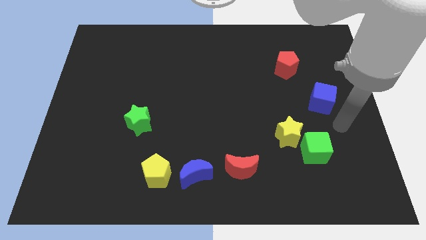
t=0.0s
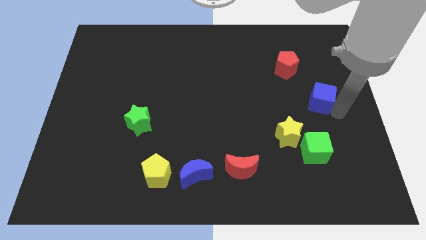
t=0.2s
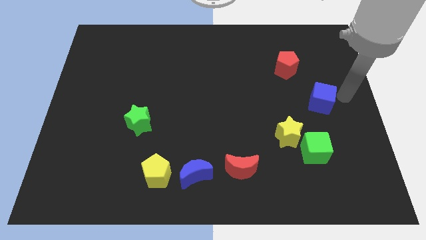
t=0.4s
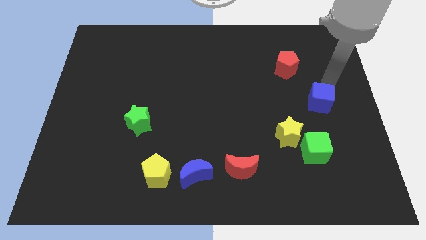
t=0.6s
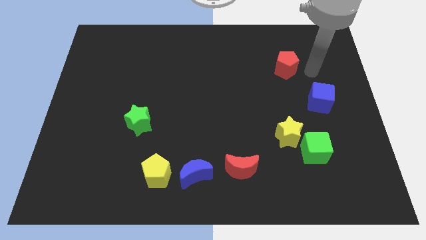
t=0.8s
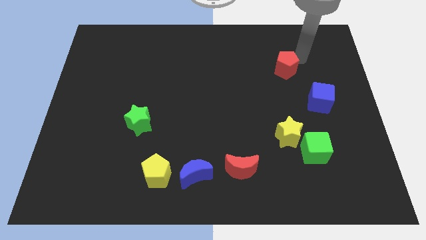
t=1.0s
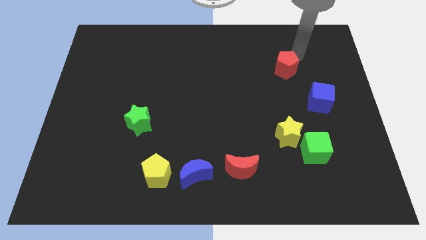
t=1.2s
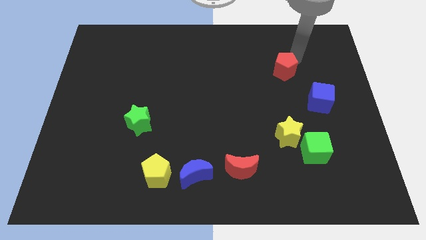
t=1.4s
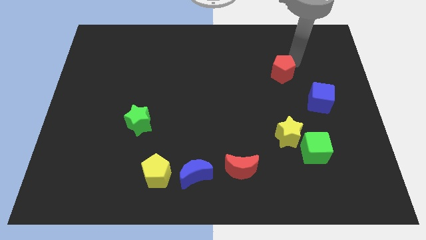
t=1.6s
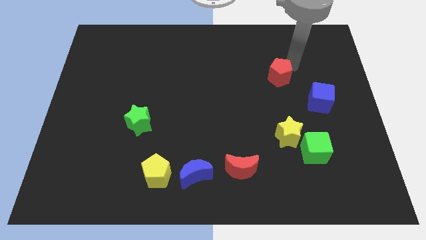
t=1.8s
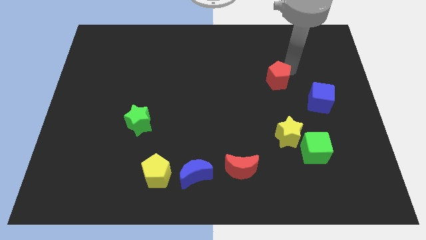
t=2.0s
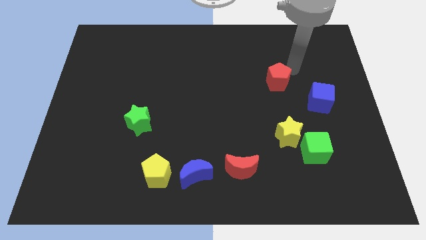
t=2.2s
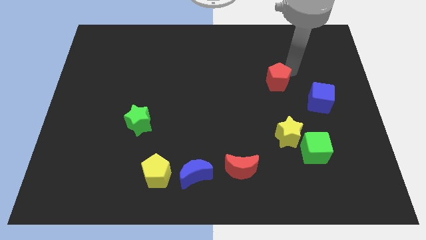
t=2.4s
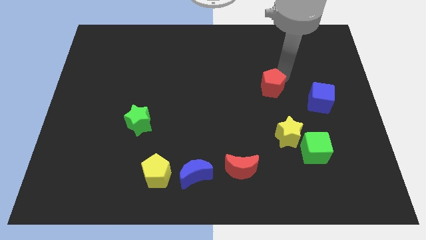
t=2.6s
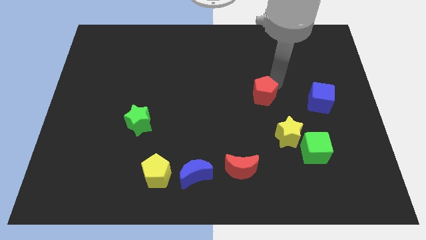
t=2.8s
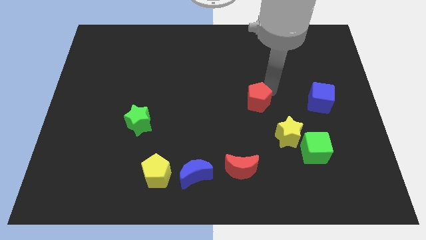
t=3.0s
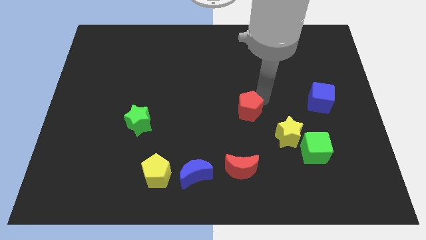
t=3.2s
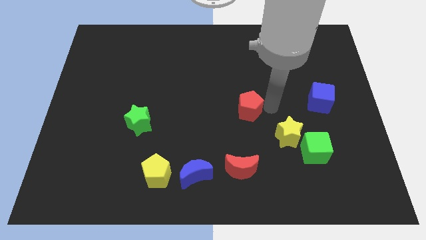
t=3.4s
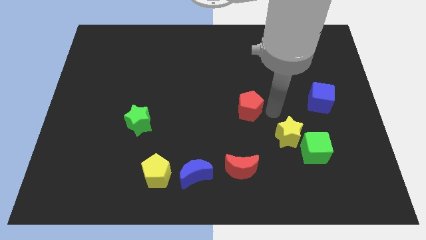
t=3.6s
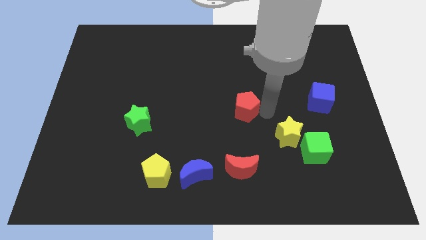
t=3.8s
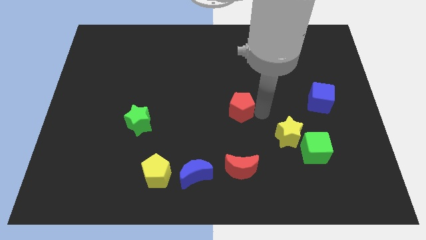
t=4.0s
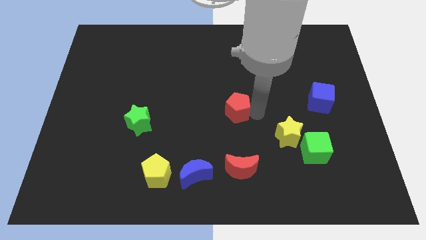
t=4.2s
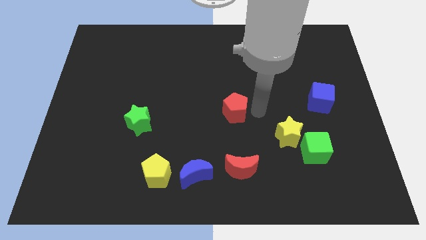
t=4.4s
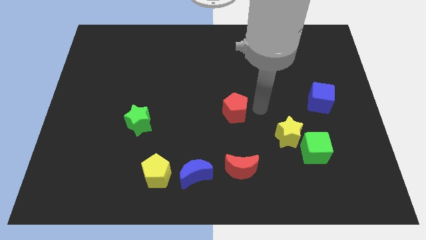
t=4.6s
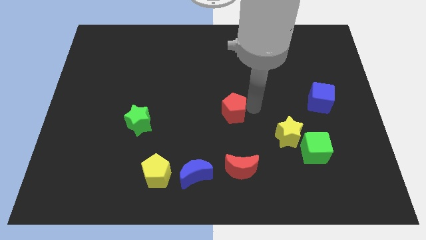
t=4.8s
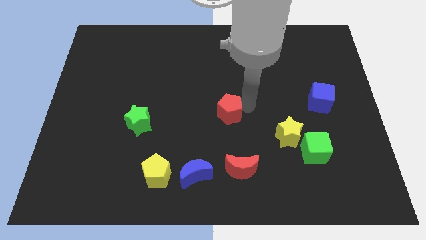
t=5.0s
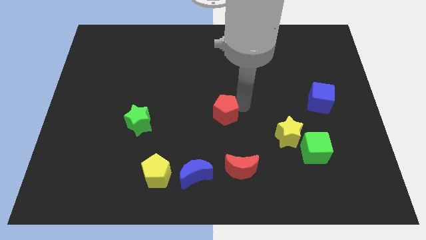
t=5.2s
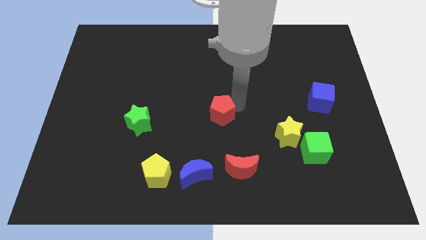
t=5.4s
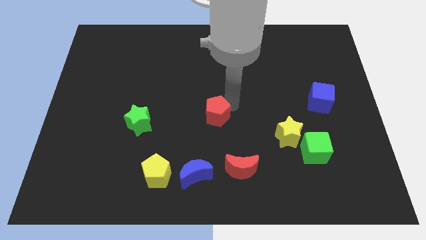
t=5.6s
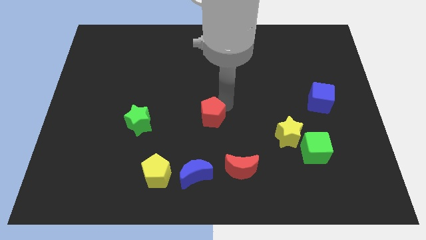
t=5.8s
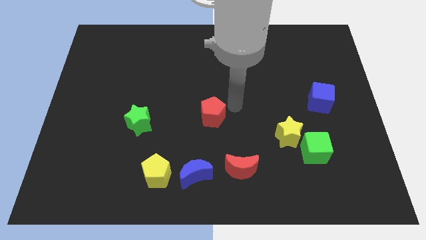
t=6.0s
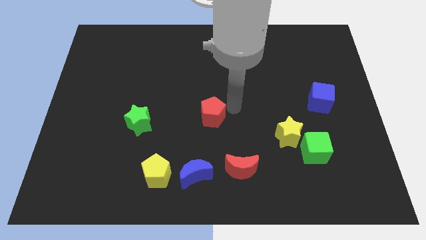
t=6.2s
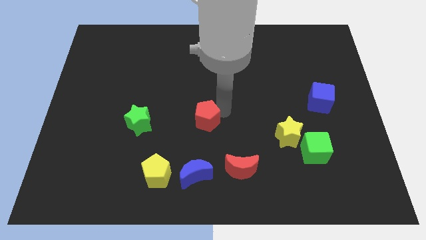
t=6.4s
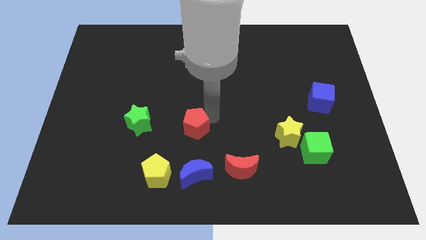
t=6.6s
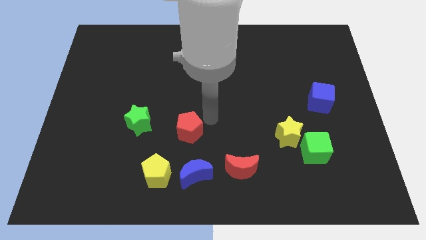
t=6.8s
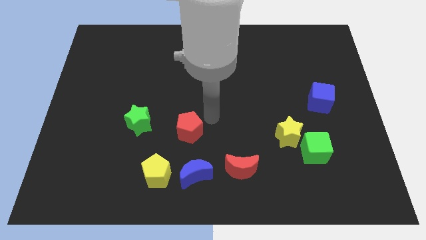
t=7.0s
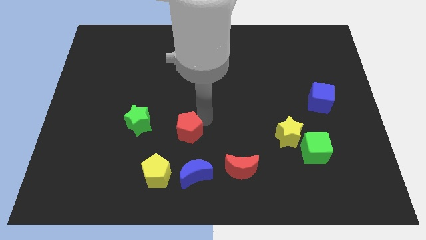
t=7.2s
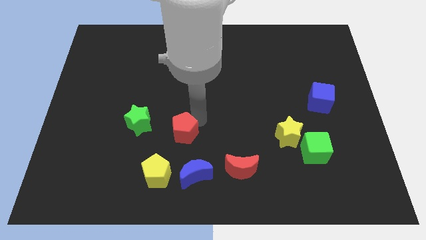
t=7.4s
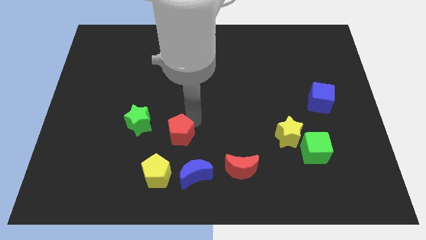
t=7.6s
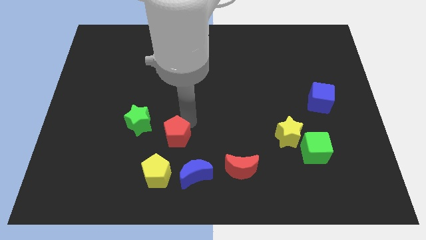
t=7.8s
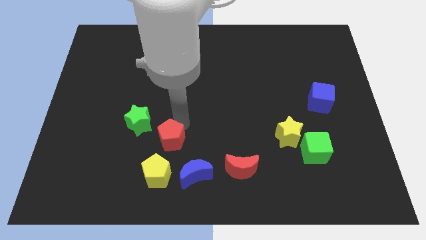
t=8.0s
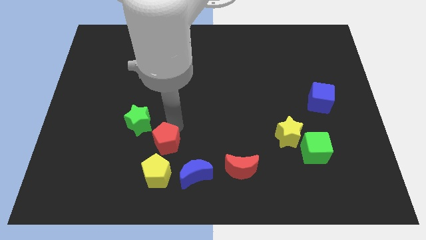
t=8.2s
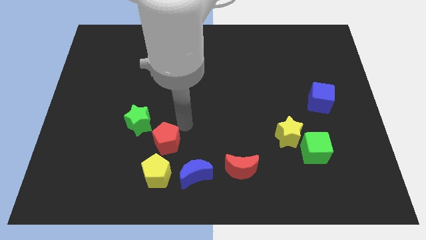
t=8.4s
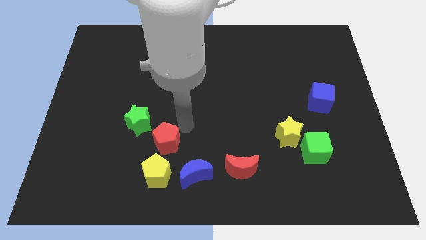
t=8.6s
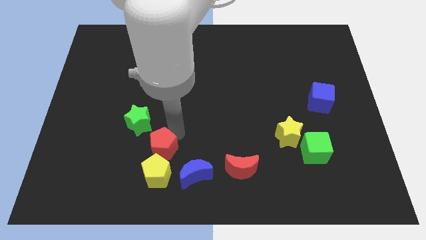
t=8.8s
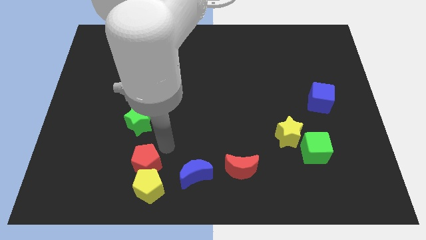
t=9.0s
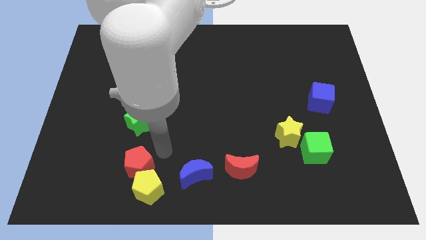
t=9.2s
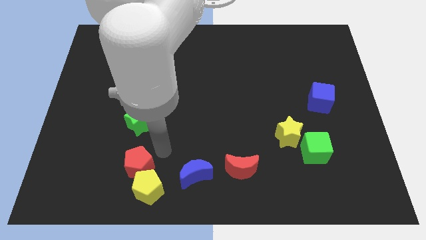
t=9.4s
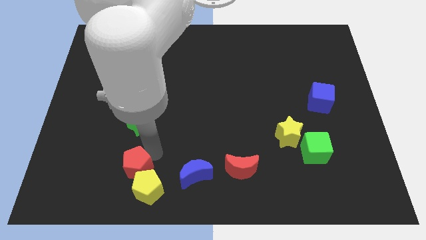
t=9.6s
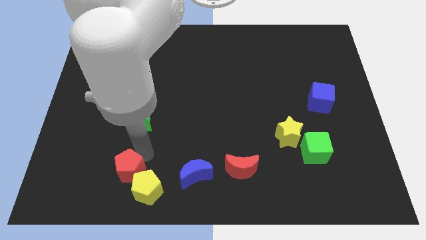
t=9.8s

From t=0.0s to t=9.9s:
move the red pentagon to the left of the yellow pentagon

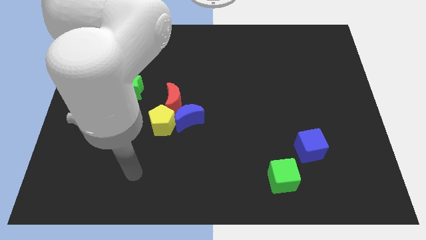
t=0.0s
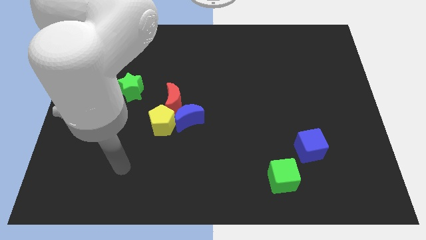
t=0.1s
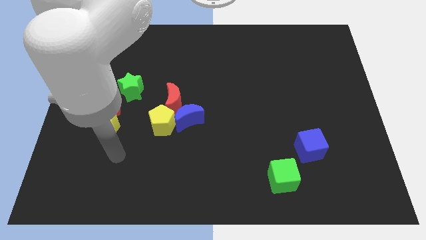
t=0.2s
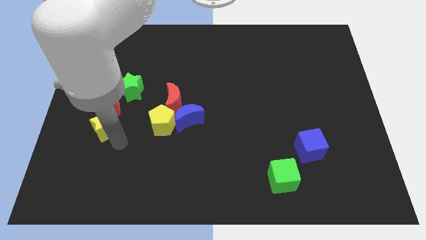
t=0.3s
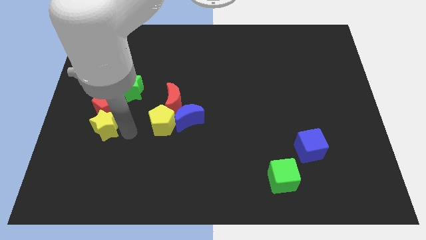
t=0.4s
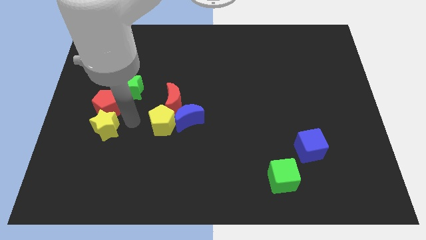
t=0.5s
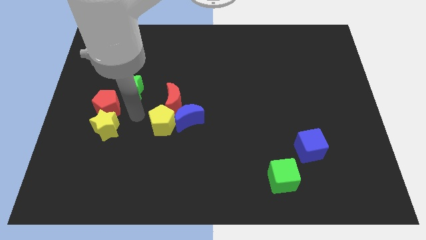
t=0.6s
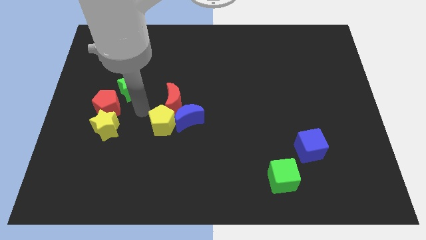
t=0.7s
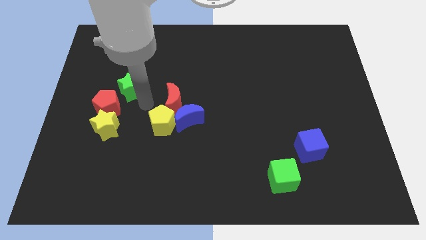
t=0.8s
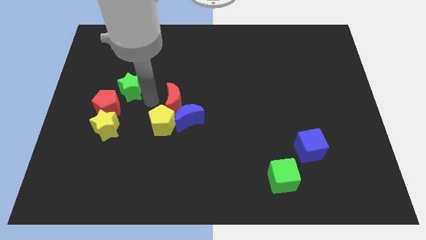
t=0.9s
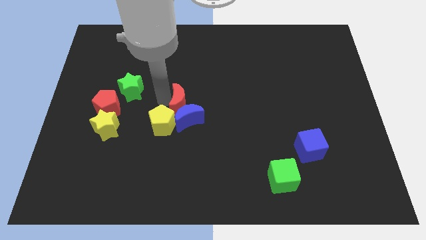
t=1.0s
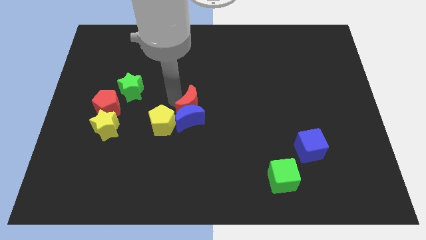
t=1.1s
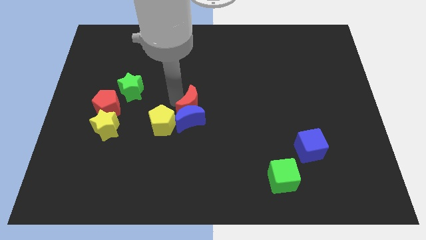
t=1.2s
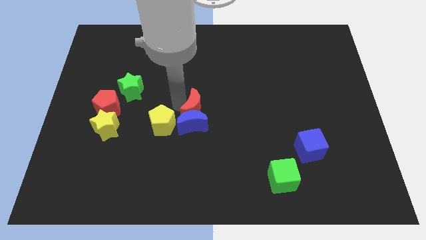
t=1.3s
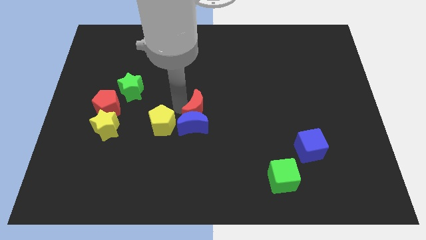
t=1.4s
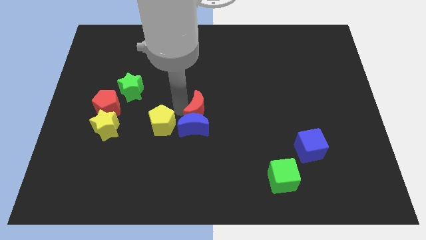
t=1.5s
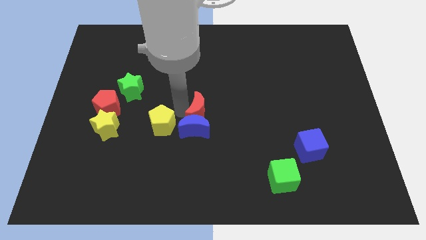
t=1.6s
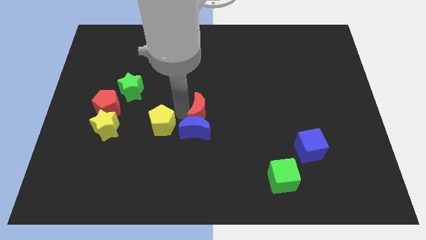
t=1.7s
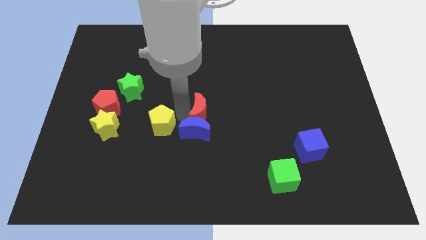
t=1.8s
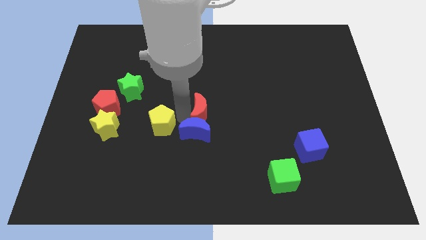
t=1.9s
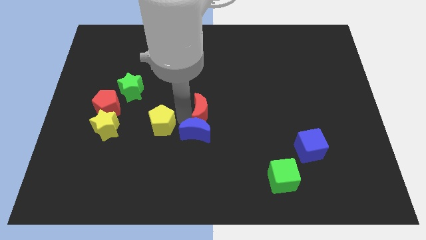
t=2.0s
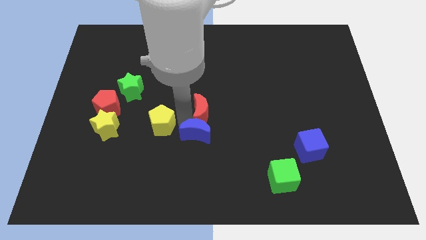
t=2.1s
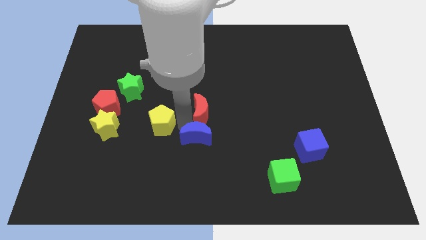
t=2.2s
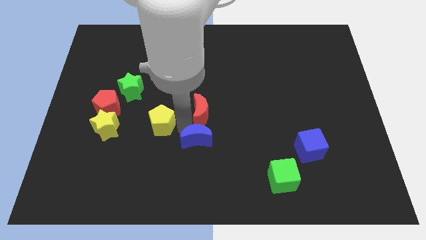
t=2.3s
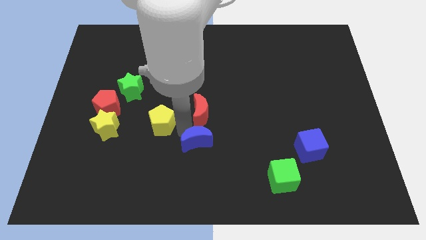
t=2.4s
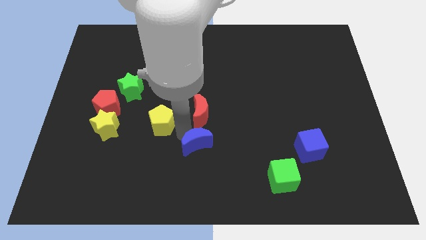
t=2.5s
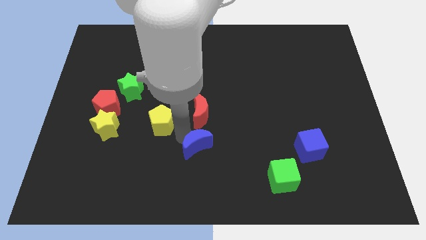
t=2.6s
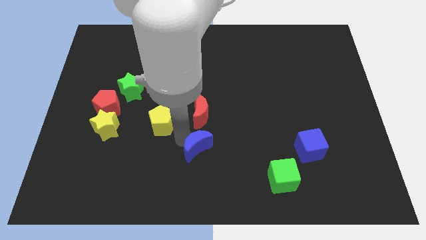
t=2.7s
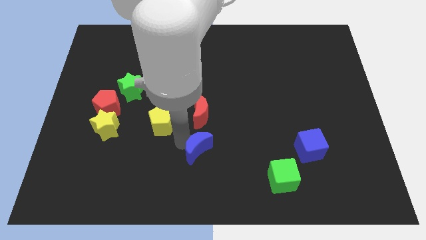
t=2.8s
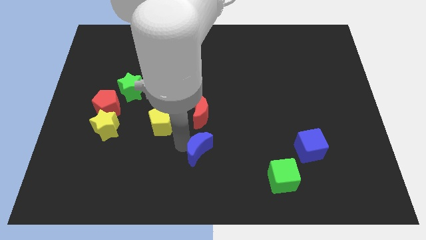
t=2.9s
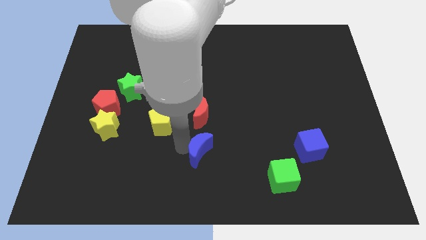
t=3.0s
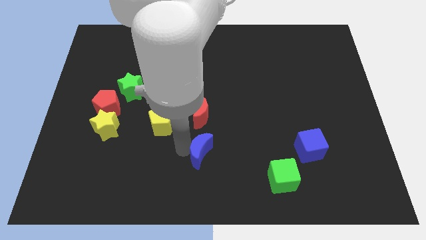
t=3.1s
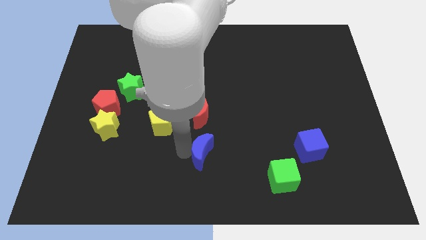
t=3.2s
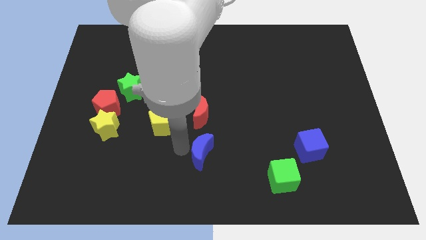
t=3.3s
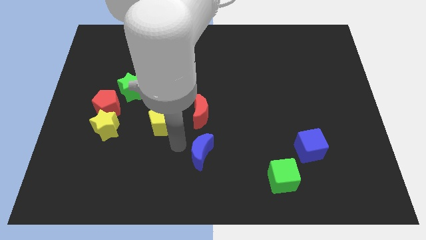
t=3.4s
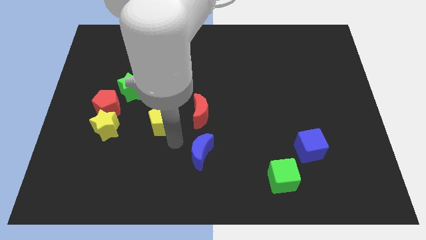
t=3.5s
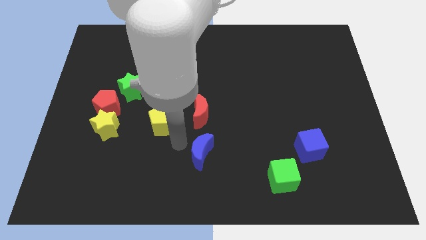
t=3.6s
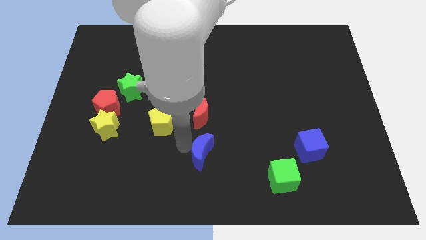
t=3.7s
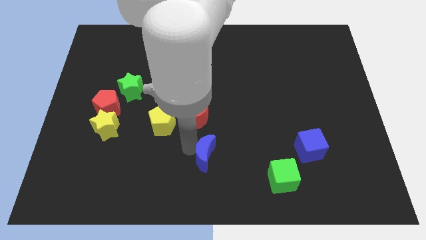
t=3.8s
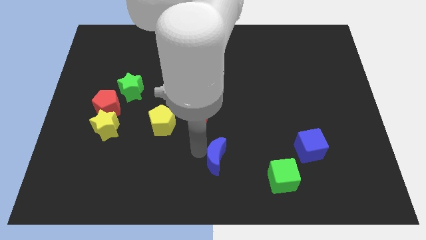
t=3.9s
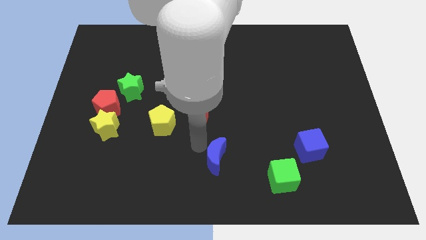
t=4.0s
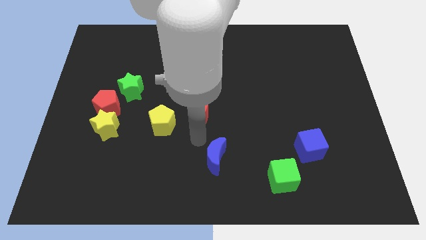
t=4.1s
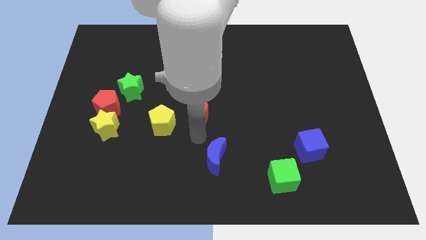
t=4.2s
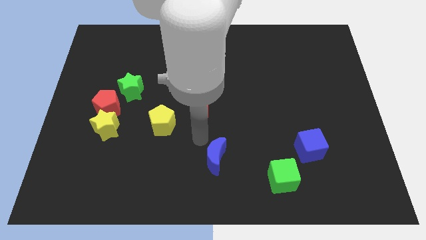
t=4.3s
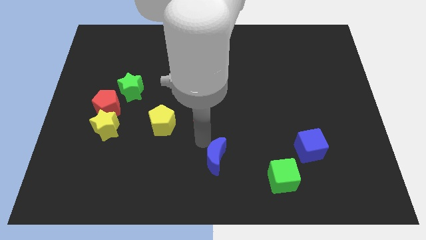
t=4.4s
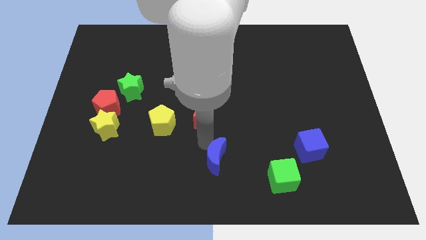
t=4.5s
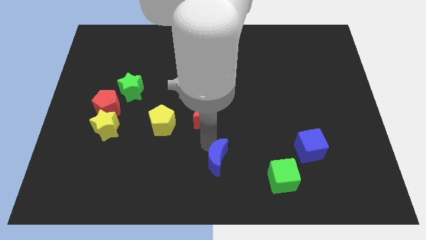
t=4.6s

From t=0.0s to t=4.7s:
put the blue moon to the left of the green cube
